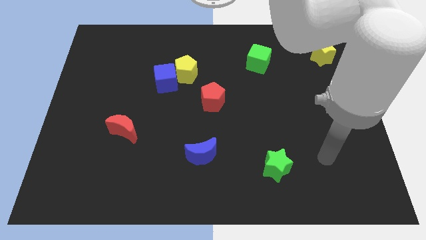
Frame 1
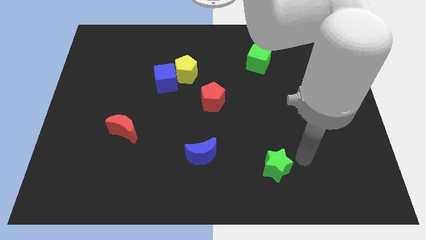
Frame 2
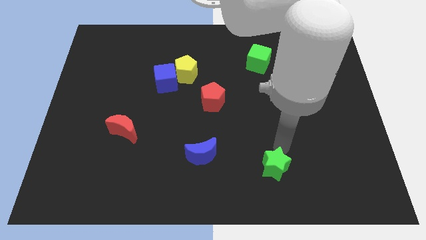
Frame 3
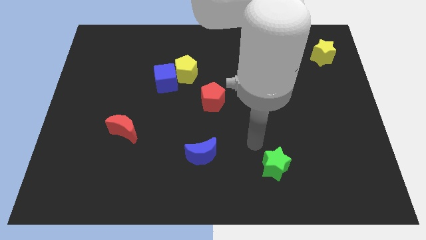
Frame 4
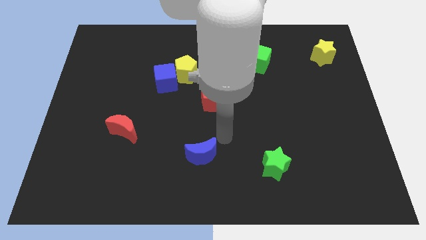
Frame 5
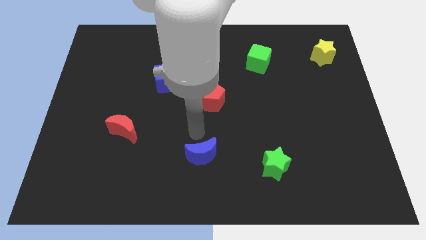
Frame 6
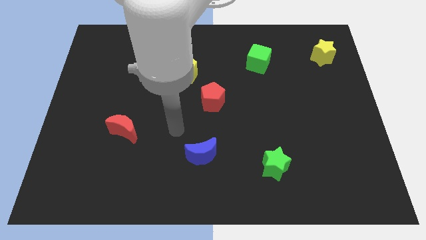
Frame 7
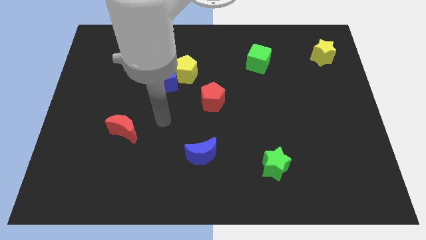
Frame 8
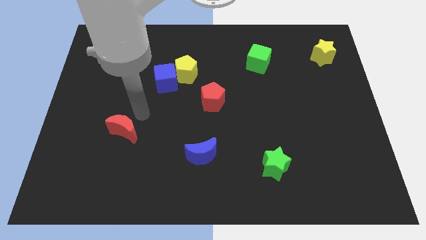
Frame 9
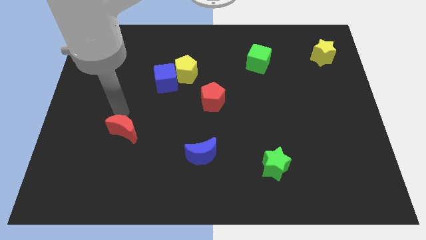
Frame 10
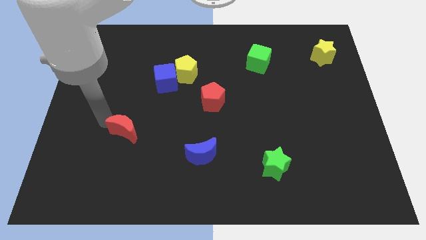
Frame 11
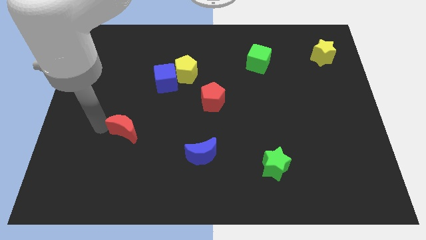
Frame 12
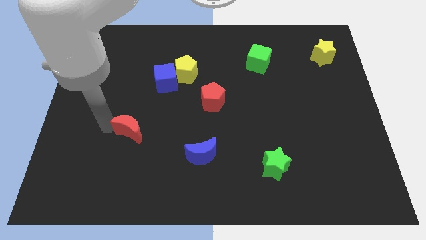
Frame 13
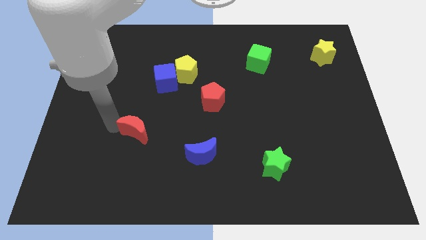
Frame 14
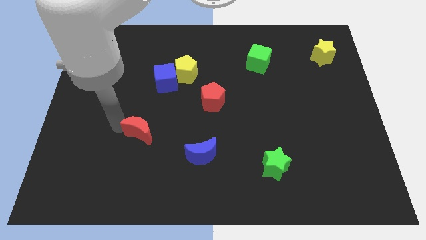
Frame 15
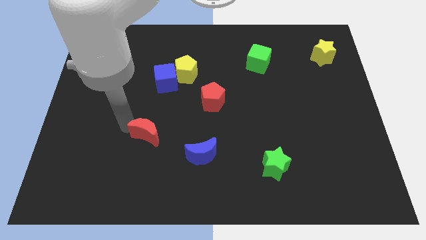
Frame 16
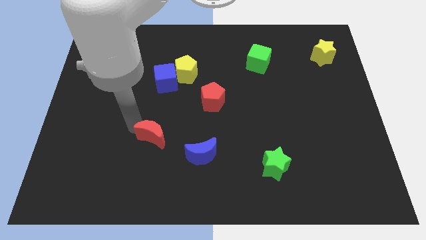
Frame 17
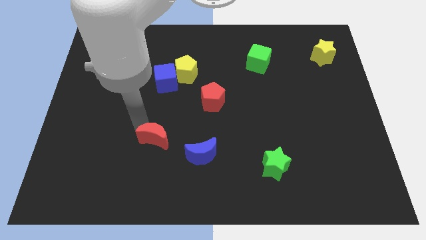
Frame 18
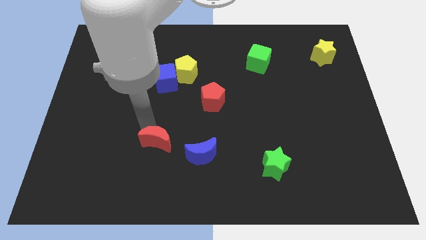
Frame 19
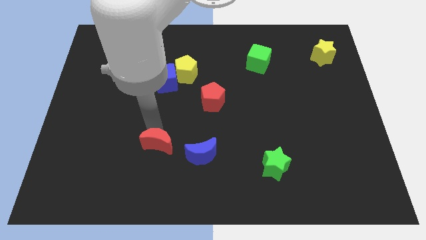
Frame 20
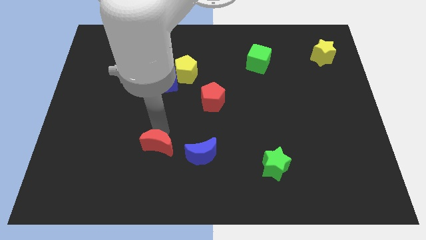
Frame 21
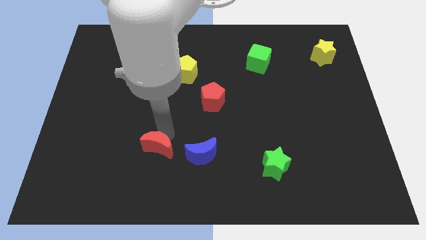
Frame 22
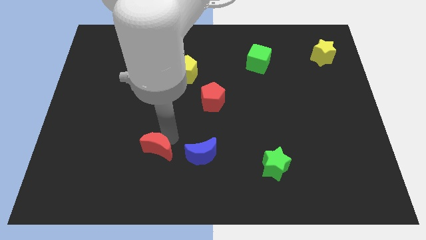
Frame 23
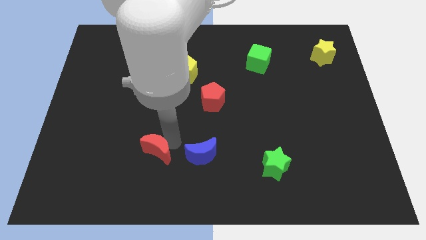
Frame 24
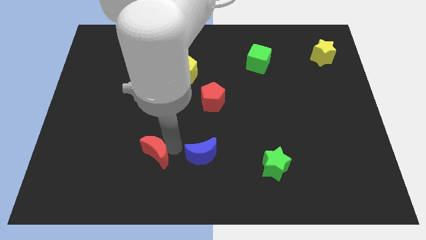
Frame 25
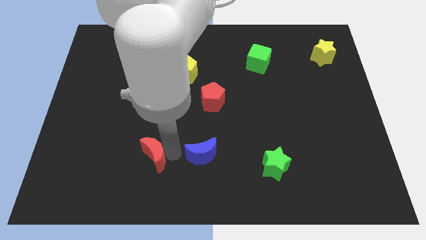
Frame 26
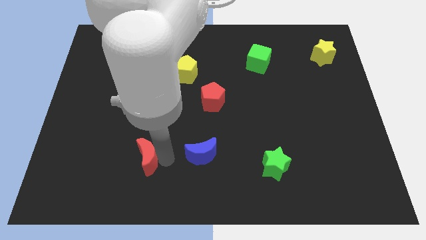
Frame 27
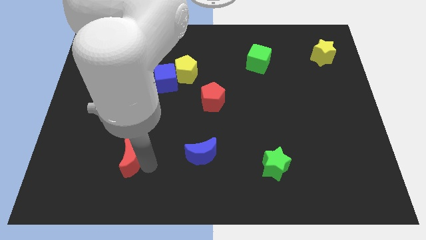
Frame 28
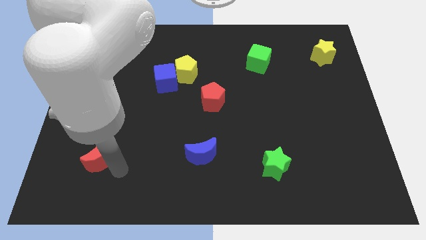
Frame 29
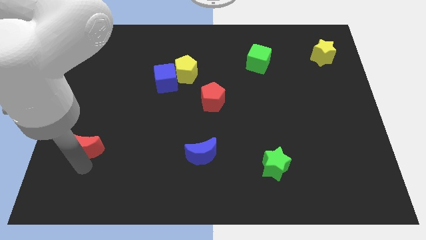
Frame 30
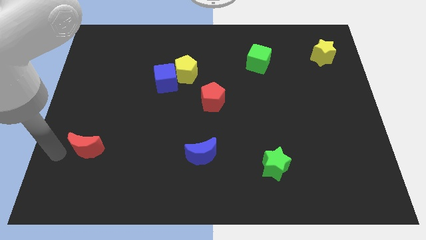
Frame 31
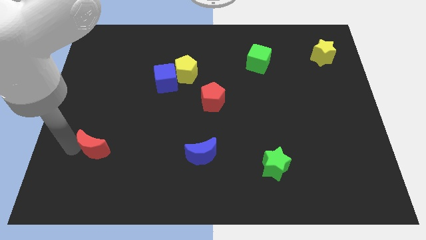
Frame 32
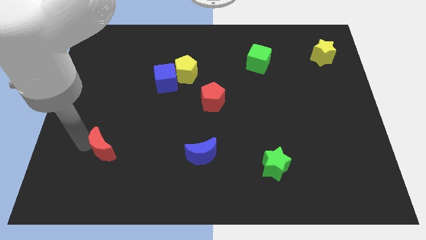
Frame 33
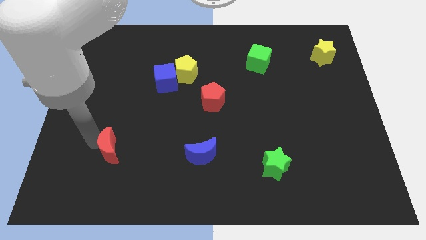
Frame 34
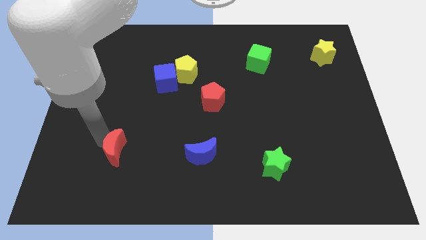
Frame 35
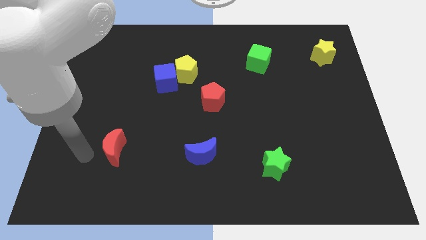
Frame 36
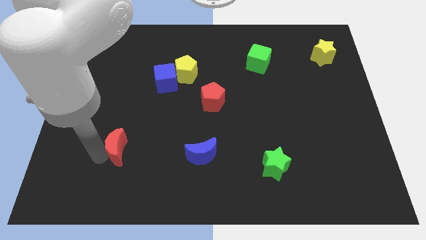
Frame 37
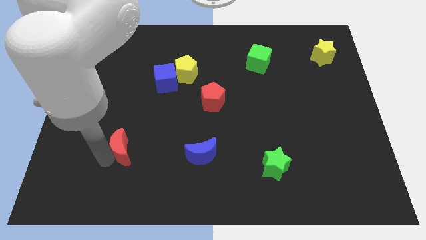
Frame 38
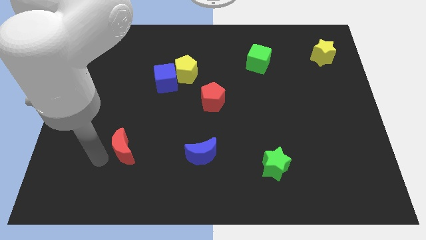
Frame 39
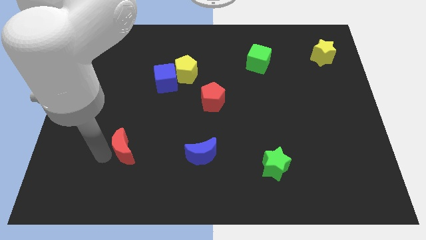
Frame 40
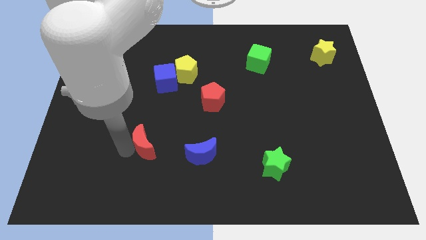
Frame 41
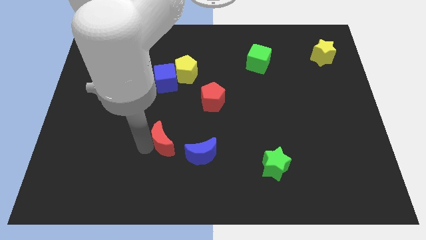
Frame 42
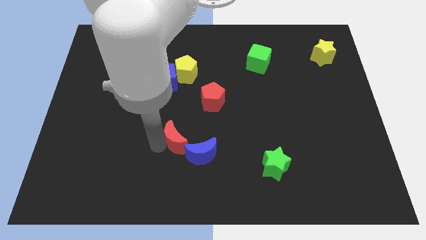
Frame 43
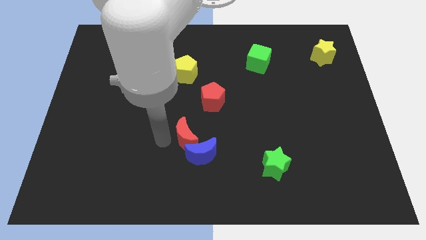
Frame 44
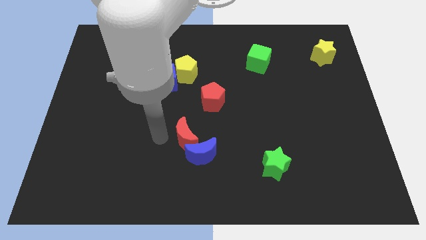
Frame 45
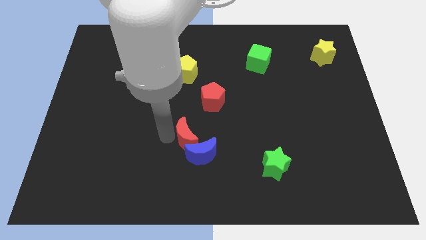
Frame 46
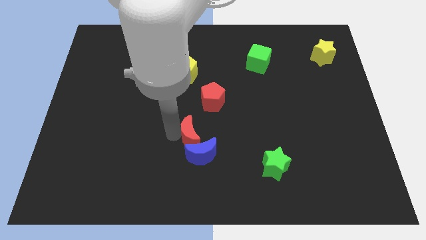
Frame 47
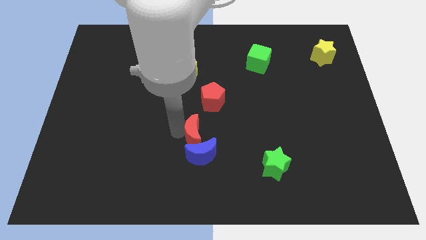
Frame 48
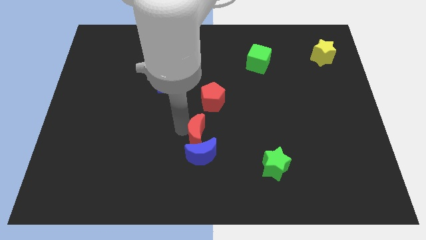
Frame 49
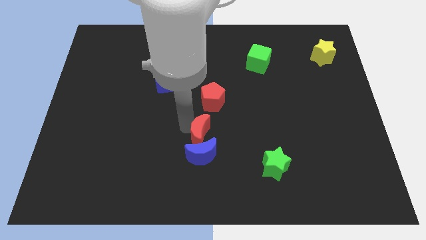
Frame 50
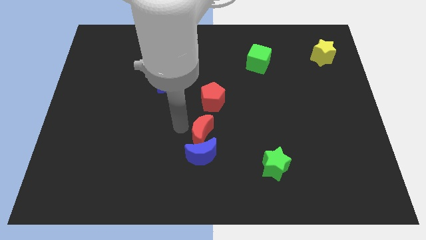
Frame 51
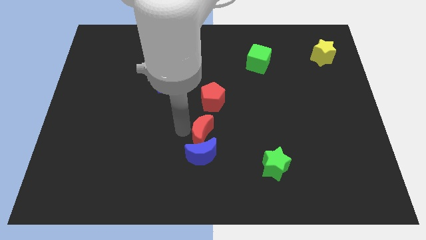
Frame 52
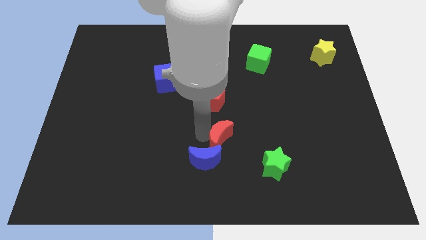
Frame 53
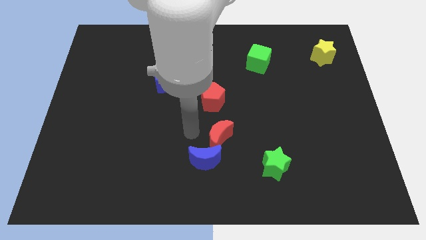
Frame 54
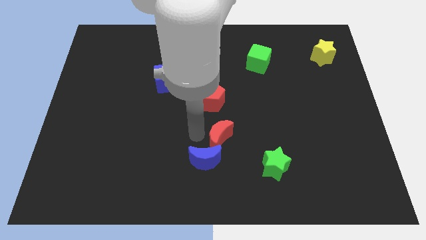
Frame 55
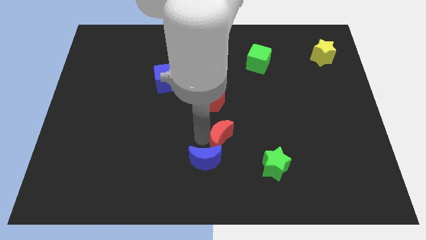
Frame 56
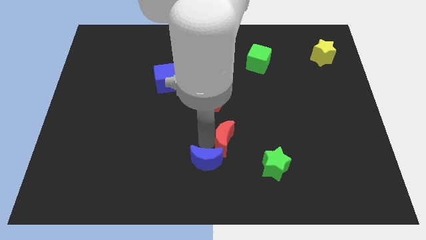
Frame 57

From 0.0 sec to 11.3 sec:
move the red moon to the top left of the green star

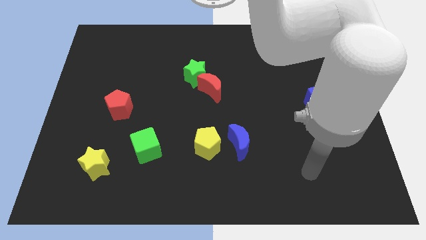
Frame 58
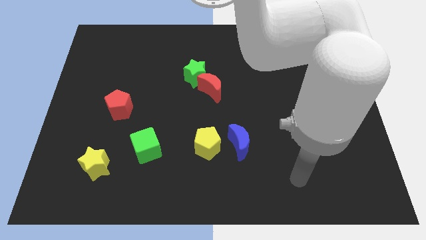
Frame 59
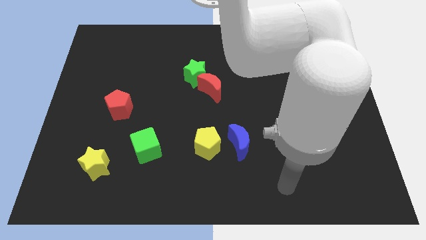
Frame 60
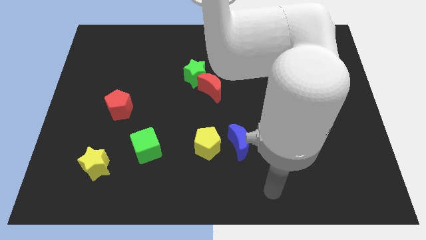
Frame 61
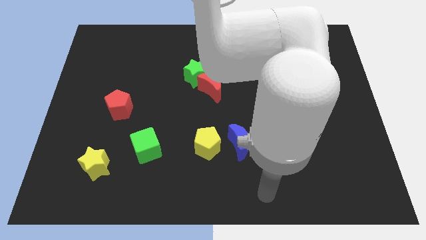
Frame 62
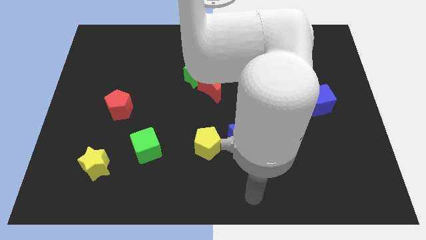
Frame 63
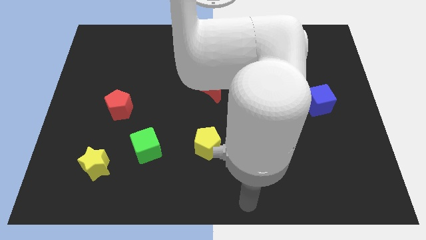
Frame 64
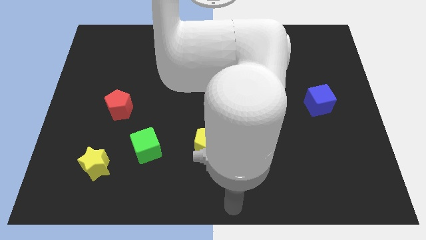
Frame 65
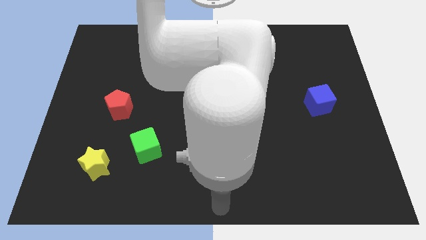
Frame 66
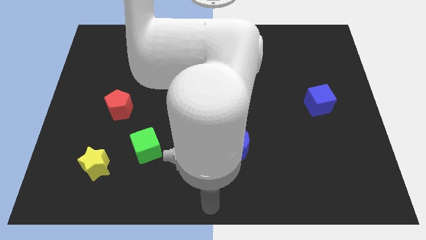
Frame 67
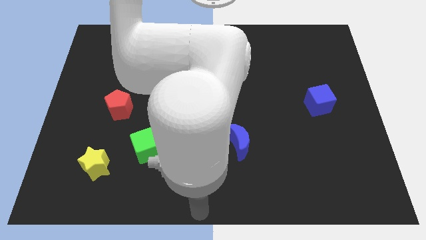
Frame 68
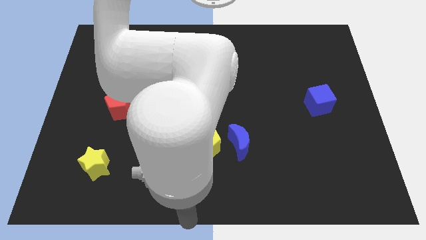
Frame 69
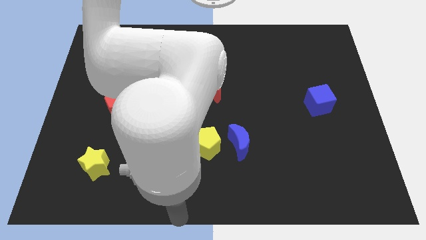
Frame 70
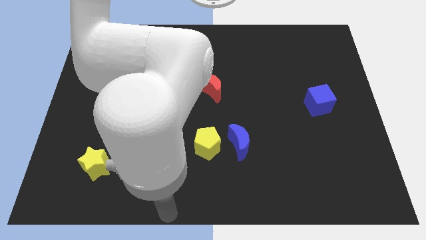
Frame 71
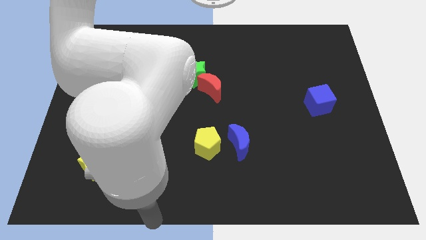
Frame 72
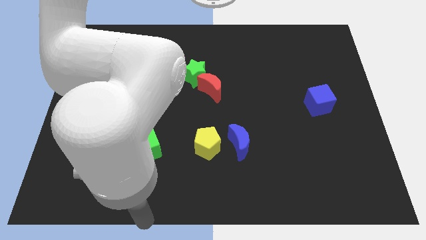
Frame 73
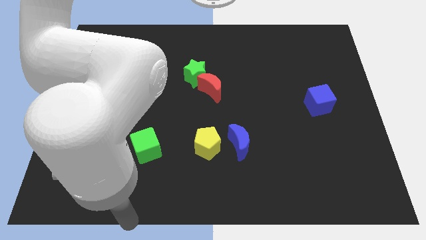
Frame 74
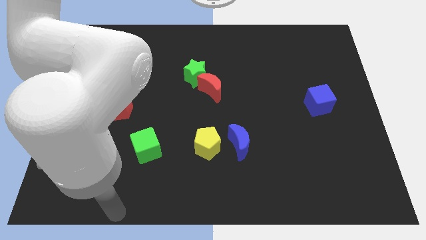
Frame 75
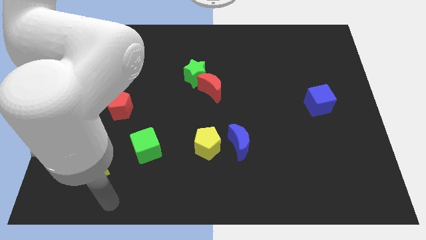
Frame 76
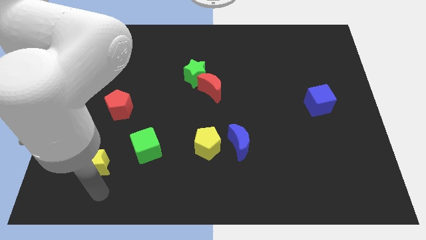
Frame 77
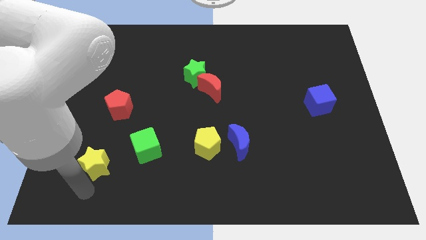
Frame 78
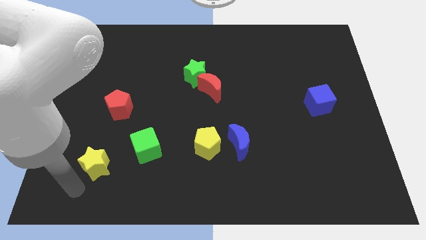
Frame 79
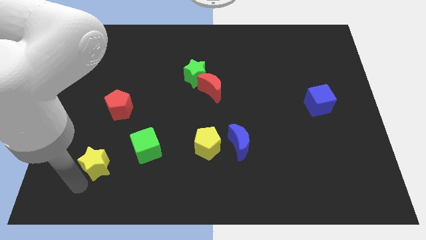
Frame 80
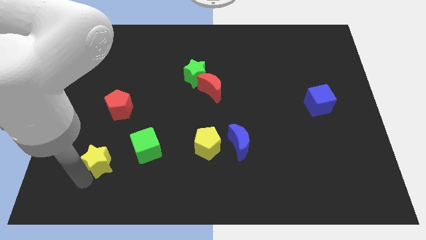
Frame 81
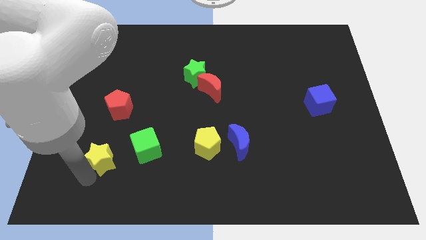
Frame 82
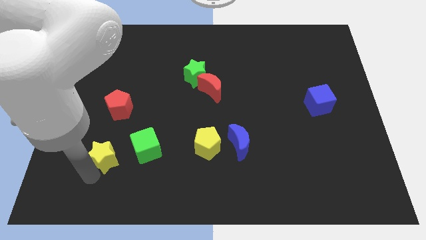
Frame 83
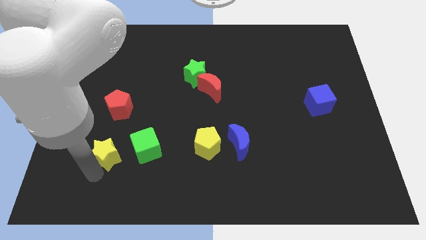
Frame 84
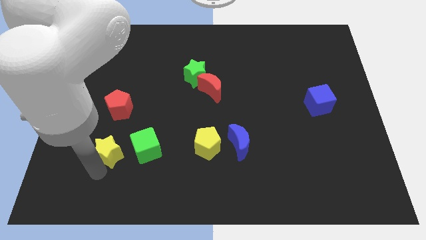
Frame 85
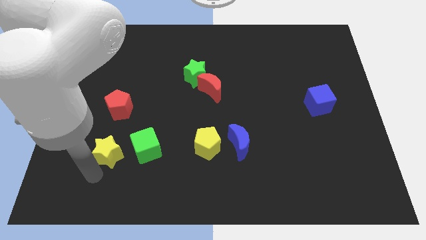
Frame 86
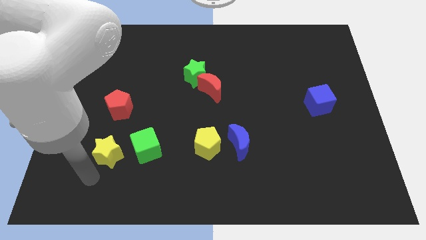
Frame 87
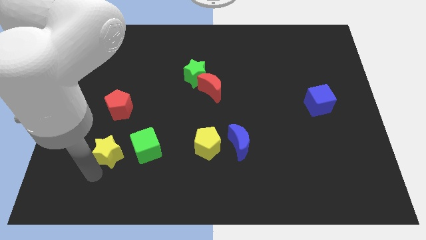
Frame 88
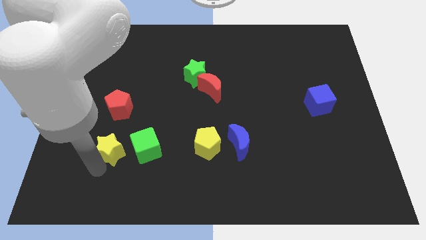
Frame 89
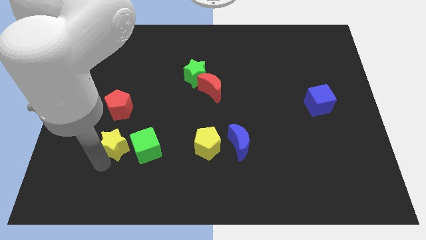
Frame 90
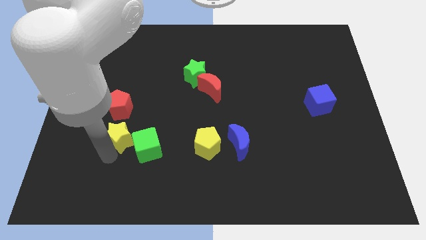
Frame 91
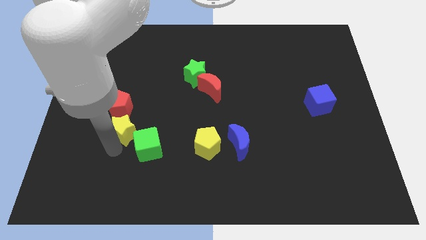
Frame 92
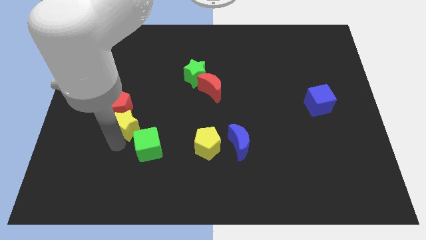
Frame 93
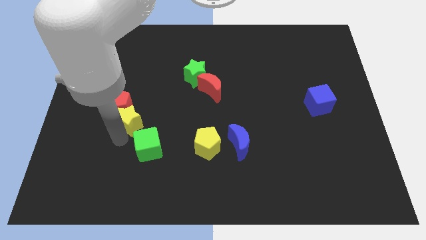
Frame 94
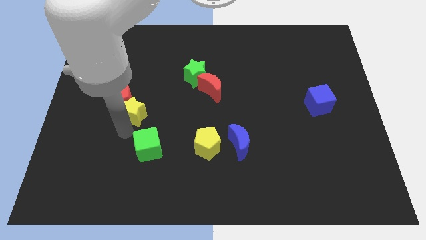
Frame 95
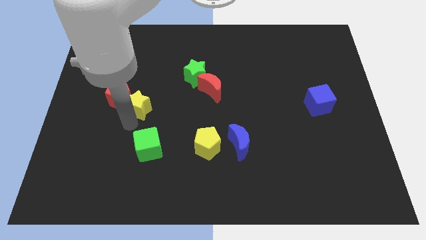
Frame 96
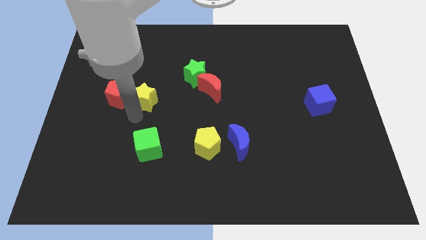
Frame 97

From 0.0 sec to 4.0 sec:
move the yellow star diagonally up and to the right of the red pentagon
